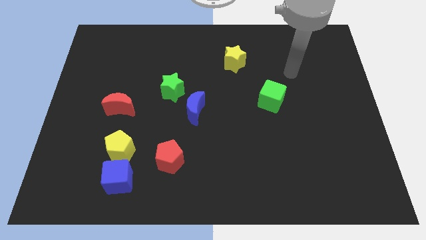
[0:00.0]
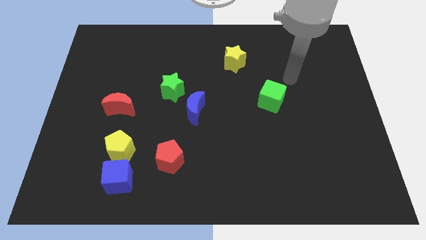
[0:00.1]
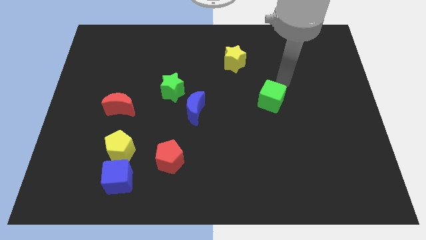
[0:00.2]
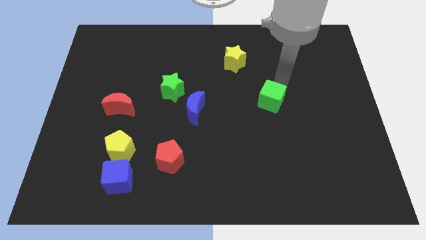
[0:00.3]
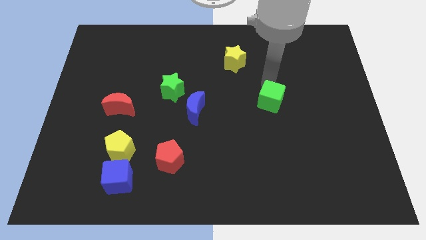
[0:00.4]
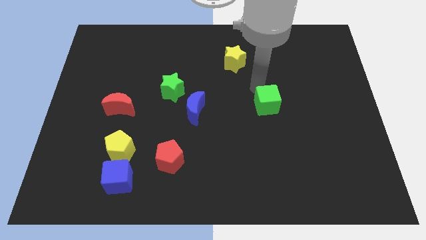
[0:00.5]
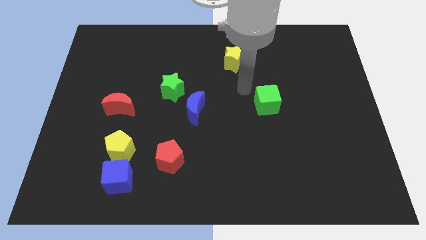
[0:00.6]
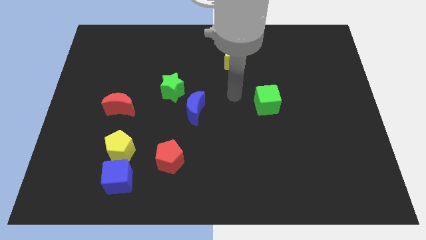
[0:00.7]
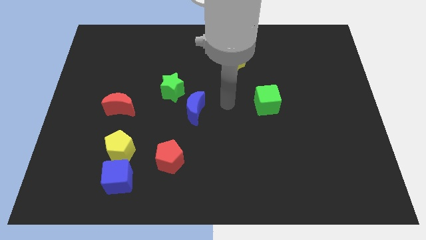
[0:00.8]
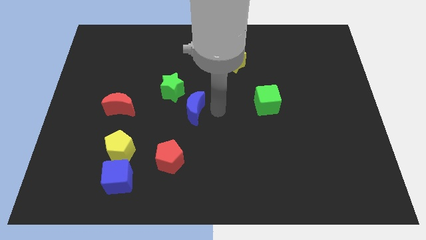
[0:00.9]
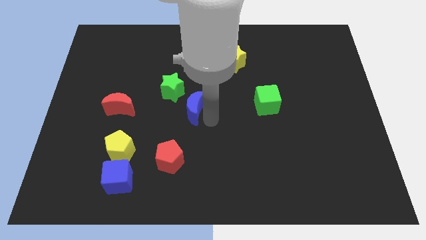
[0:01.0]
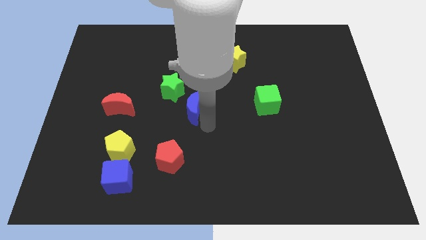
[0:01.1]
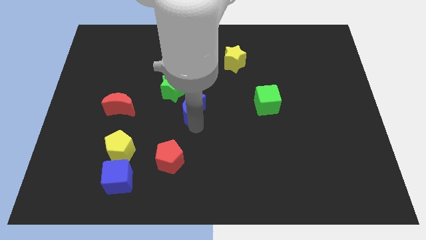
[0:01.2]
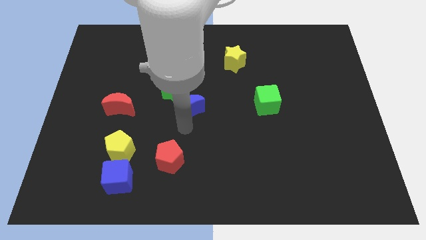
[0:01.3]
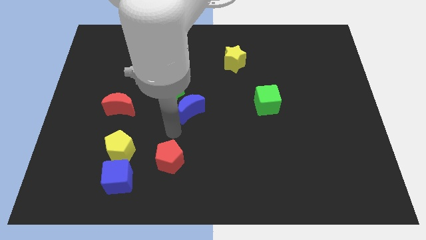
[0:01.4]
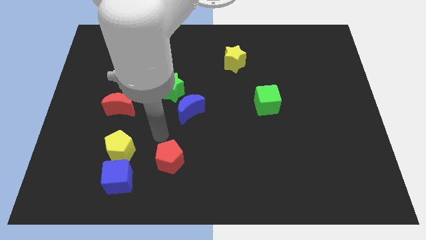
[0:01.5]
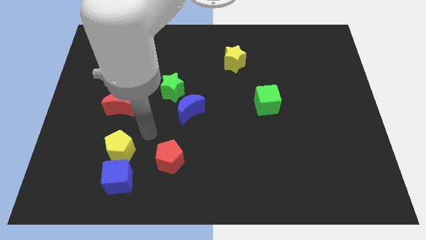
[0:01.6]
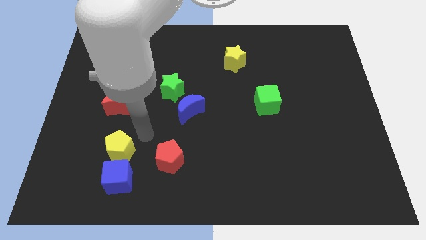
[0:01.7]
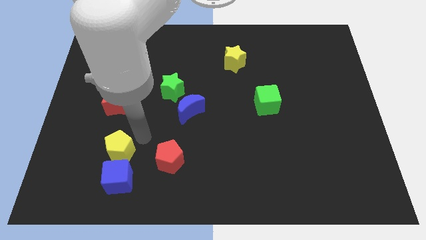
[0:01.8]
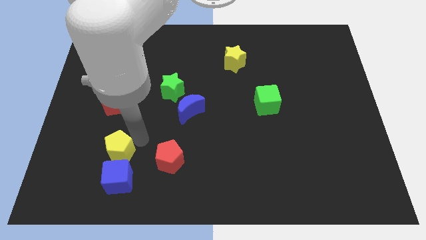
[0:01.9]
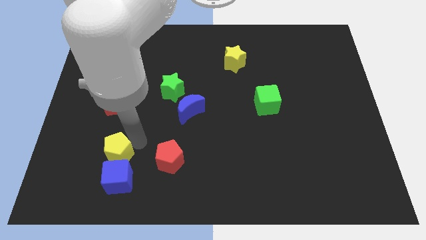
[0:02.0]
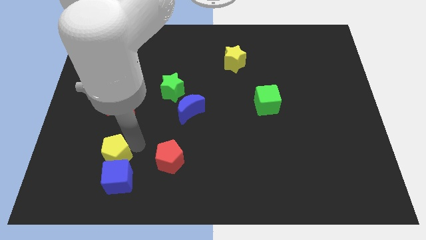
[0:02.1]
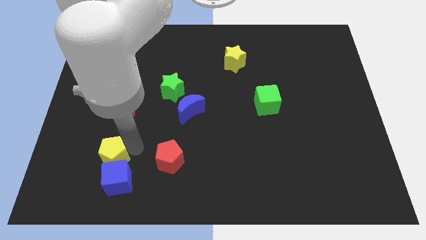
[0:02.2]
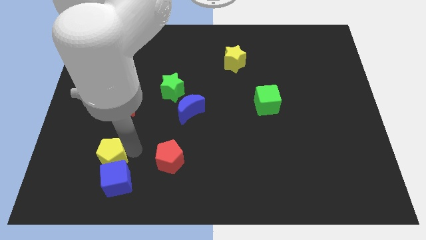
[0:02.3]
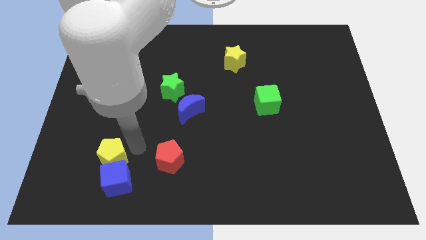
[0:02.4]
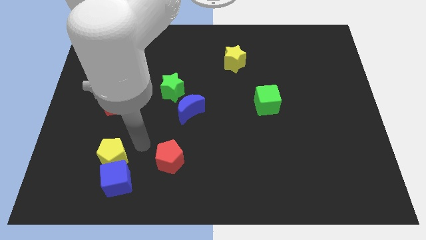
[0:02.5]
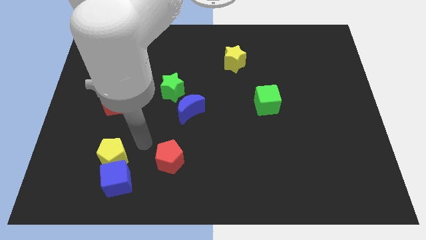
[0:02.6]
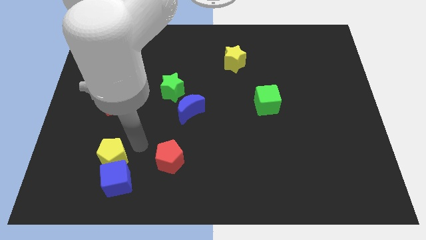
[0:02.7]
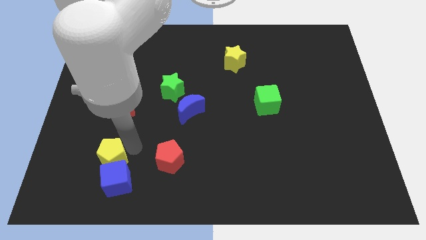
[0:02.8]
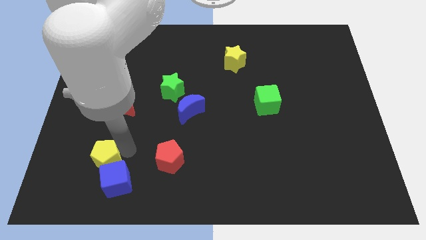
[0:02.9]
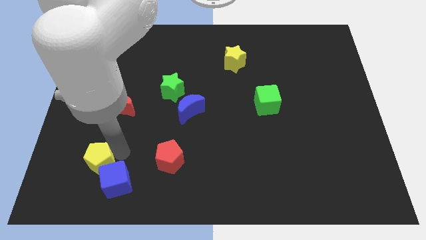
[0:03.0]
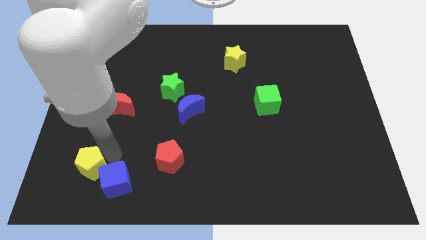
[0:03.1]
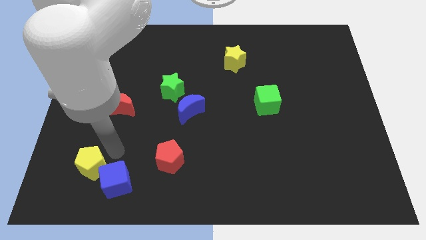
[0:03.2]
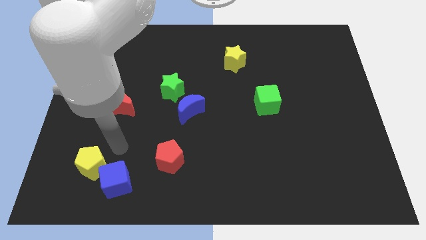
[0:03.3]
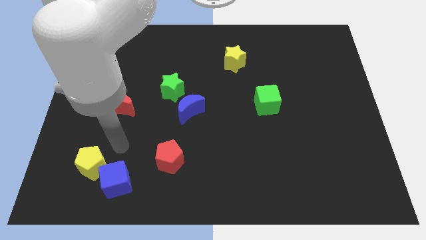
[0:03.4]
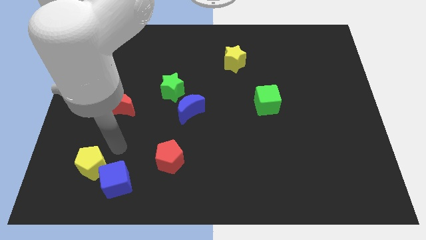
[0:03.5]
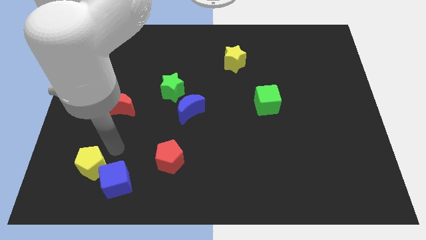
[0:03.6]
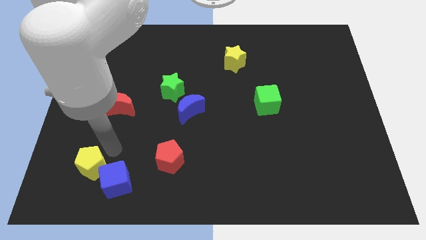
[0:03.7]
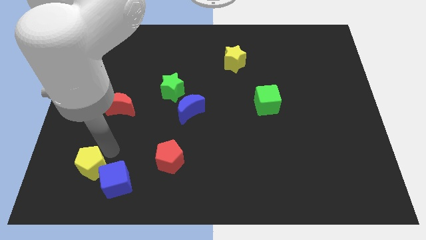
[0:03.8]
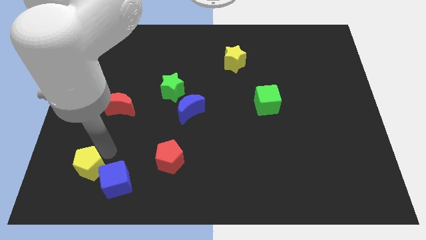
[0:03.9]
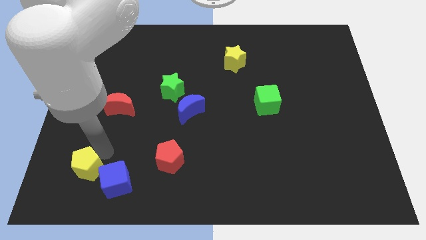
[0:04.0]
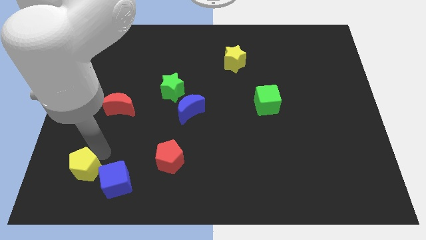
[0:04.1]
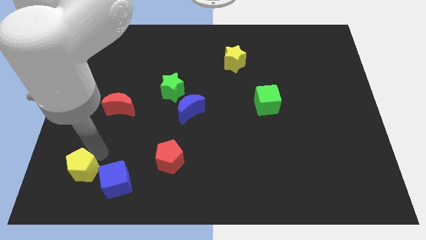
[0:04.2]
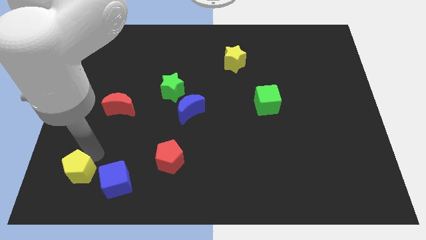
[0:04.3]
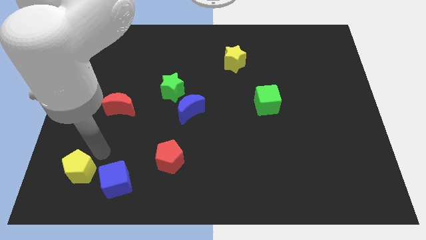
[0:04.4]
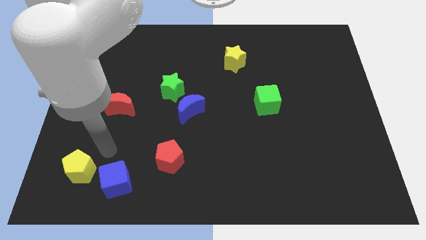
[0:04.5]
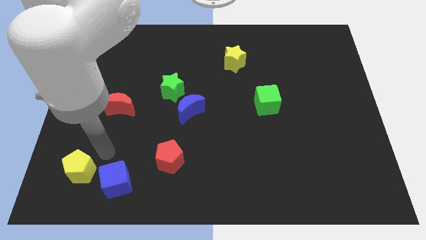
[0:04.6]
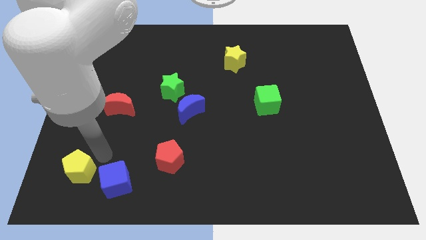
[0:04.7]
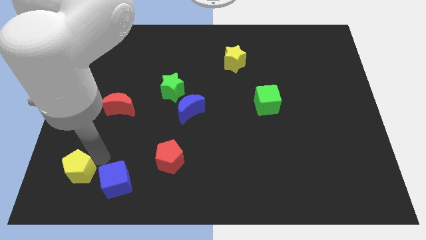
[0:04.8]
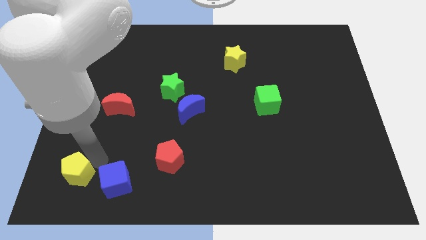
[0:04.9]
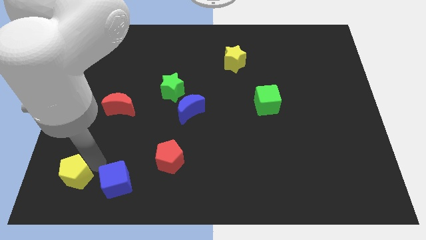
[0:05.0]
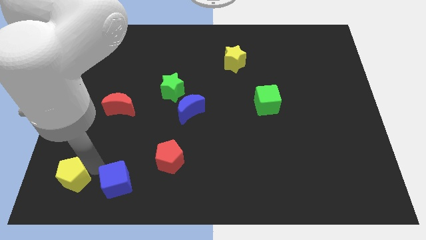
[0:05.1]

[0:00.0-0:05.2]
put the yellow pentagon to the bottom left corner
